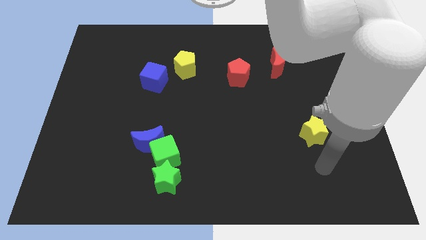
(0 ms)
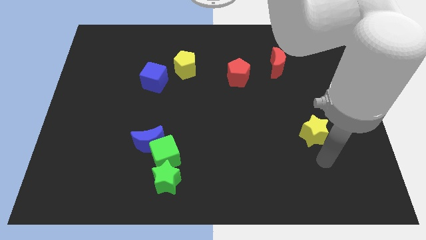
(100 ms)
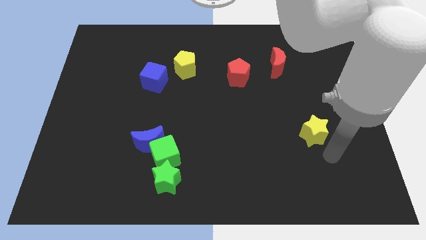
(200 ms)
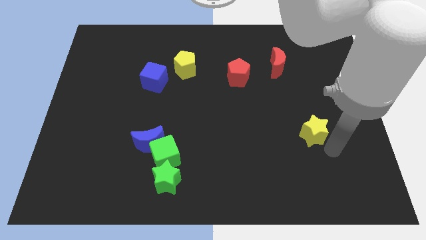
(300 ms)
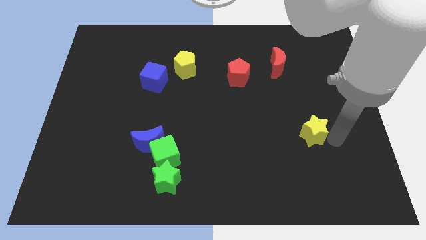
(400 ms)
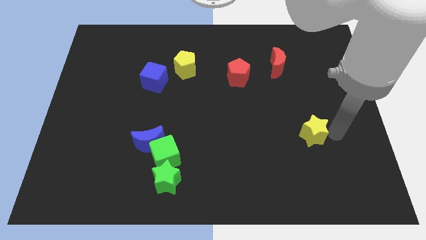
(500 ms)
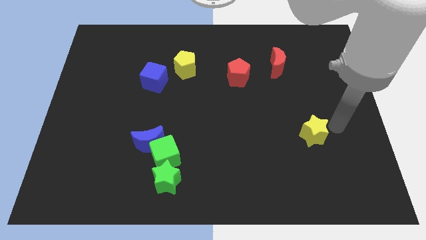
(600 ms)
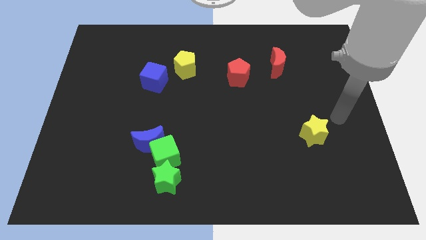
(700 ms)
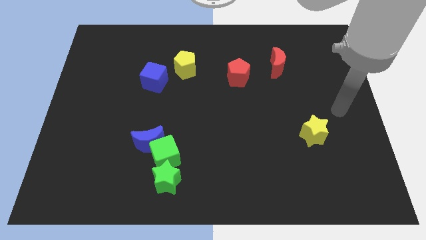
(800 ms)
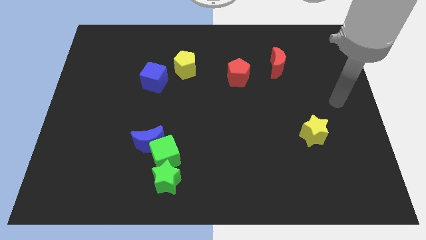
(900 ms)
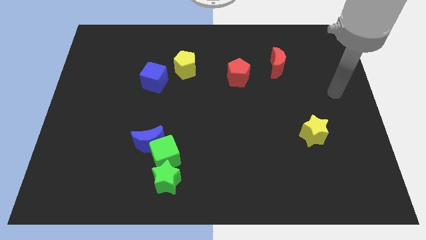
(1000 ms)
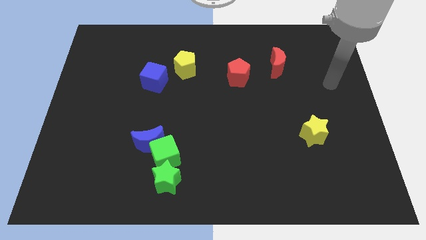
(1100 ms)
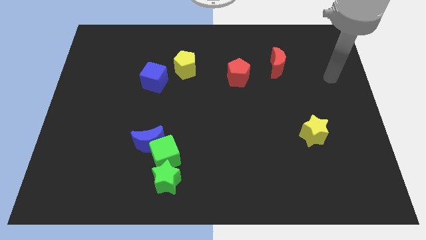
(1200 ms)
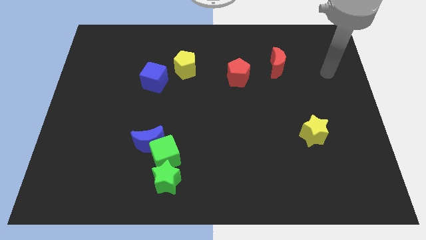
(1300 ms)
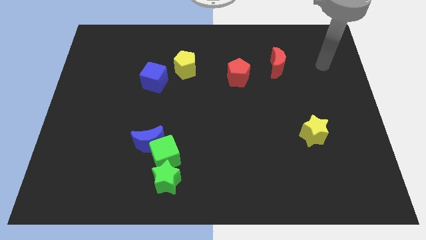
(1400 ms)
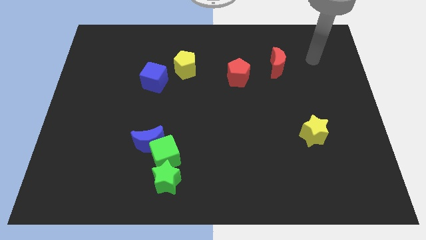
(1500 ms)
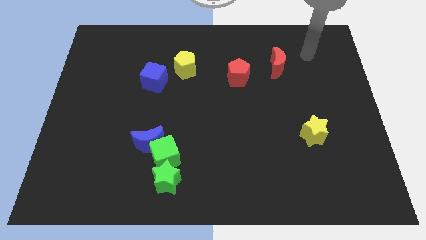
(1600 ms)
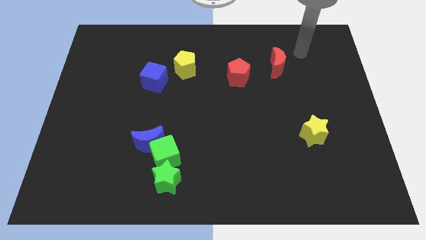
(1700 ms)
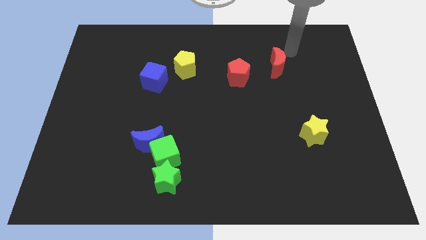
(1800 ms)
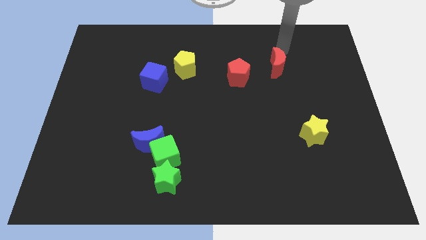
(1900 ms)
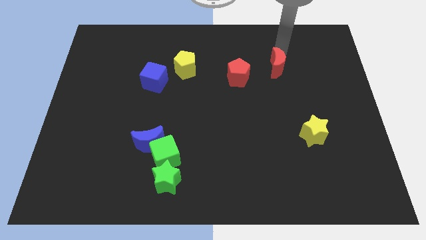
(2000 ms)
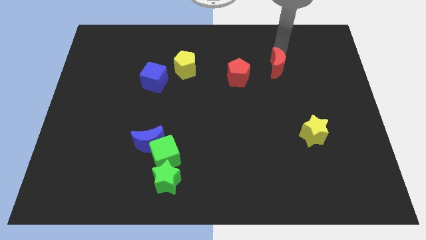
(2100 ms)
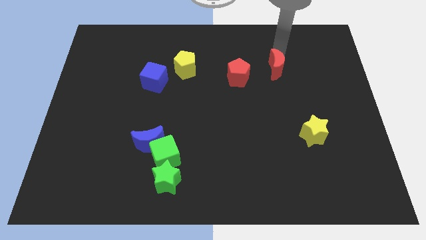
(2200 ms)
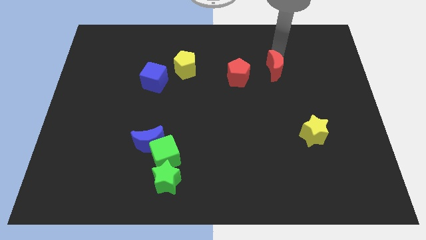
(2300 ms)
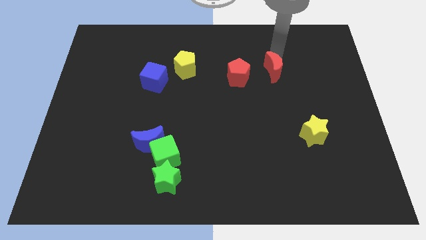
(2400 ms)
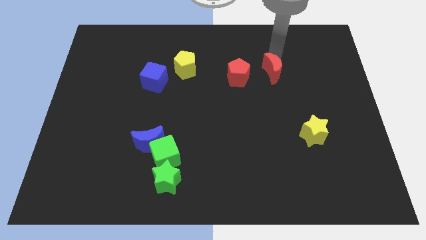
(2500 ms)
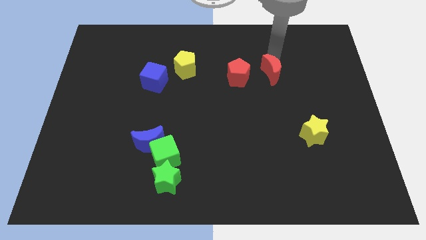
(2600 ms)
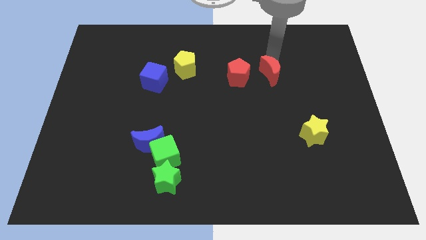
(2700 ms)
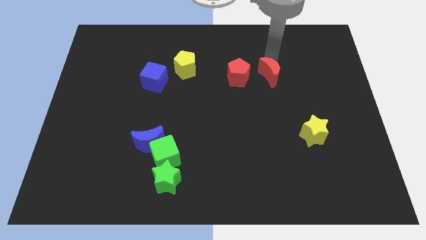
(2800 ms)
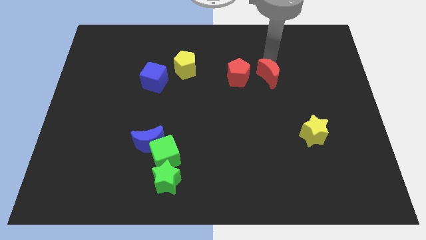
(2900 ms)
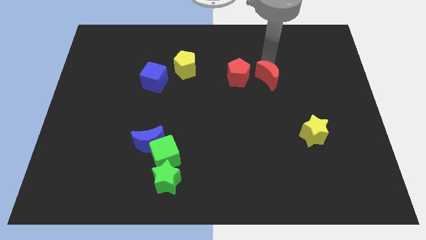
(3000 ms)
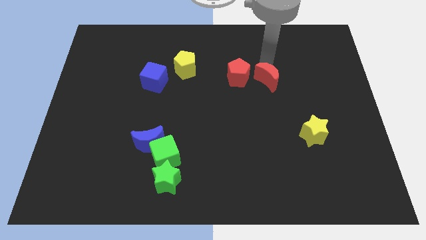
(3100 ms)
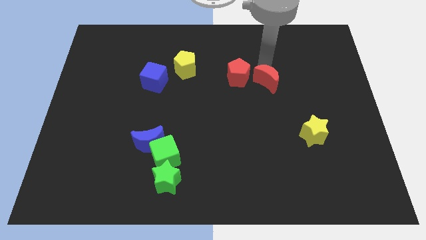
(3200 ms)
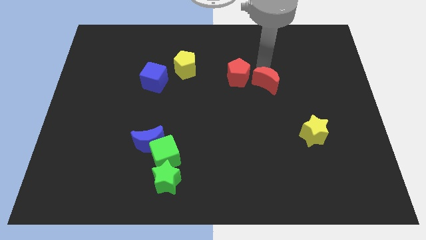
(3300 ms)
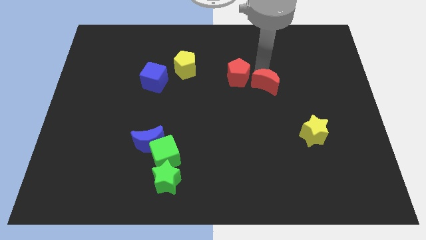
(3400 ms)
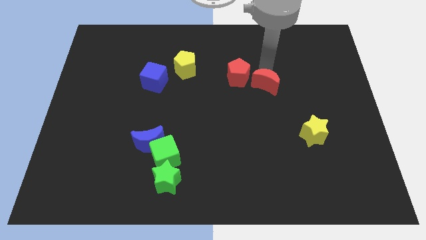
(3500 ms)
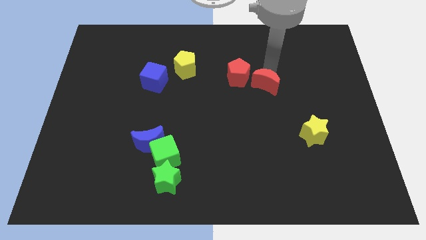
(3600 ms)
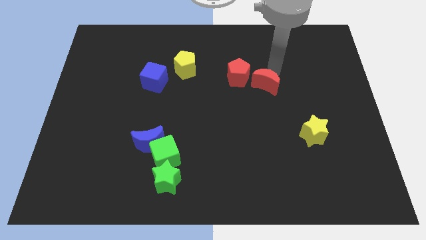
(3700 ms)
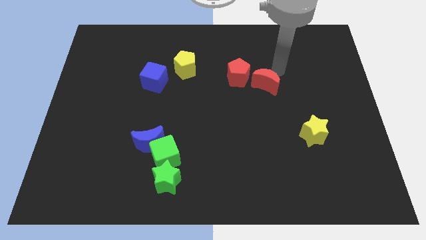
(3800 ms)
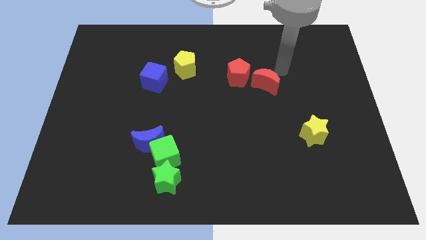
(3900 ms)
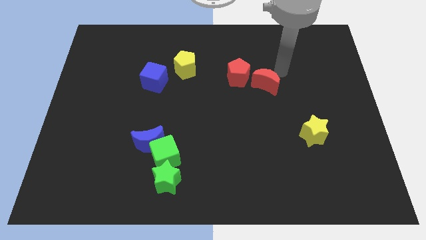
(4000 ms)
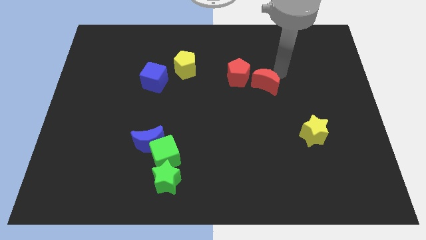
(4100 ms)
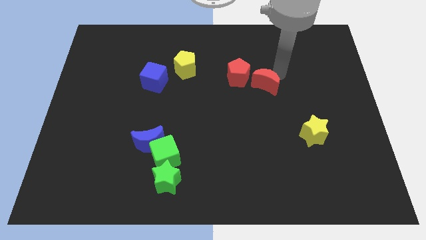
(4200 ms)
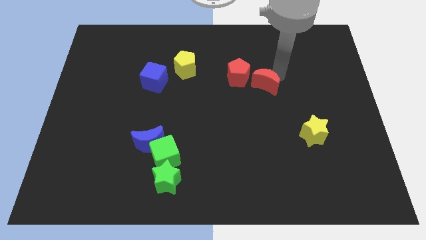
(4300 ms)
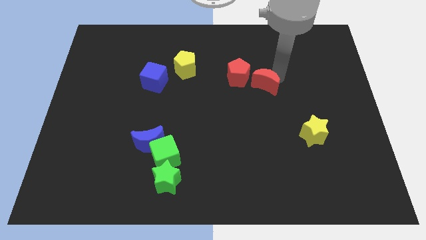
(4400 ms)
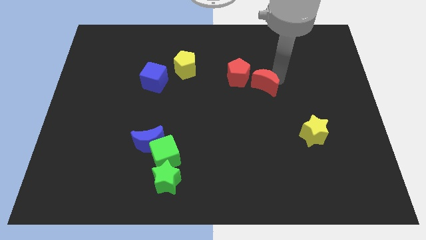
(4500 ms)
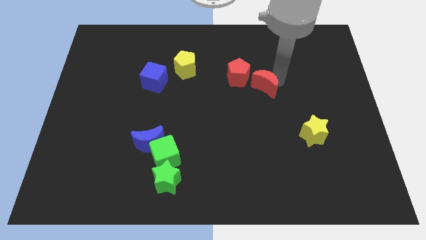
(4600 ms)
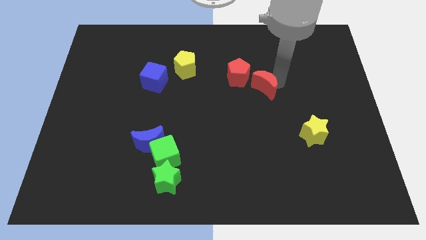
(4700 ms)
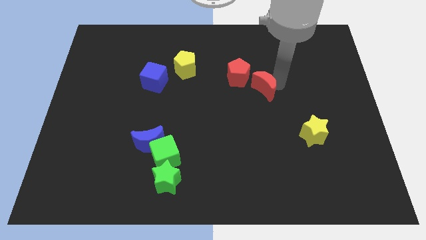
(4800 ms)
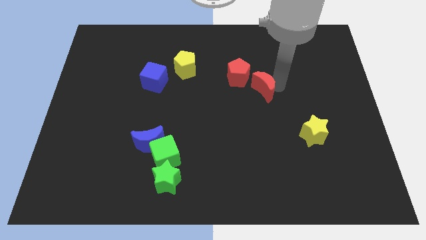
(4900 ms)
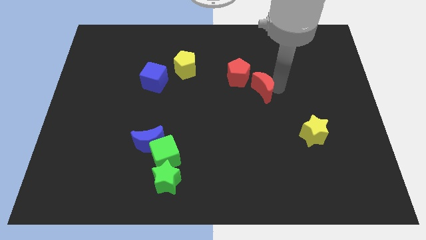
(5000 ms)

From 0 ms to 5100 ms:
move the red moon to the center of the board

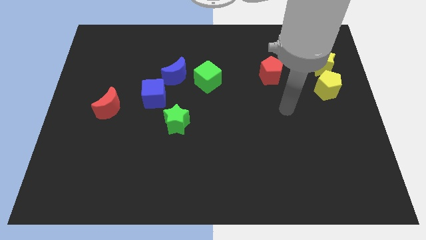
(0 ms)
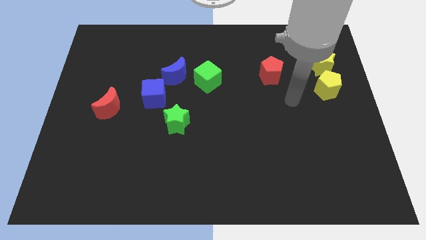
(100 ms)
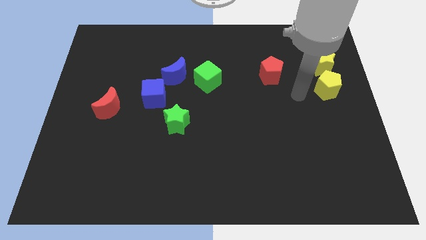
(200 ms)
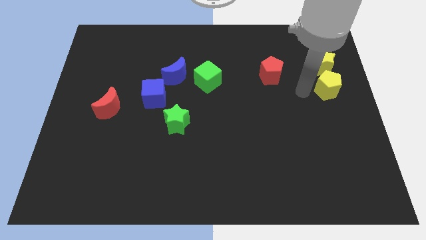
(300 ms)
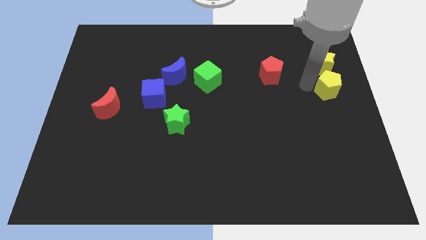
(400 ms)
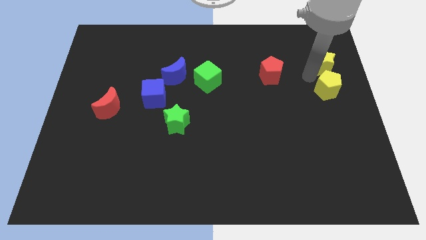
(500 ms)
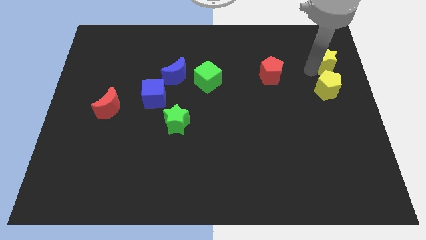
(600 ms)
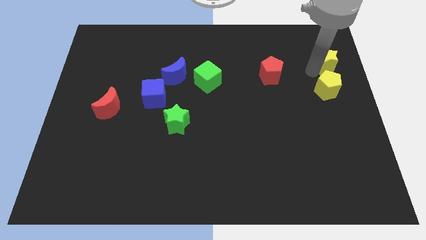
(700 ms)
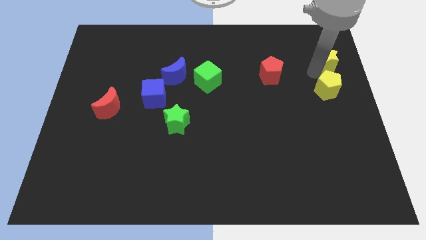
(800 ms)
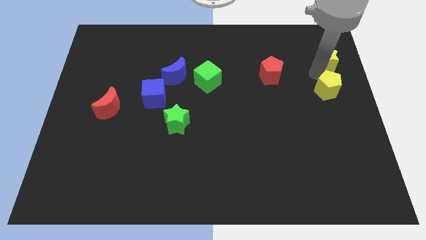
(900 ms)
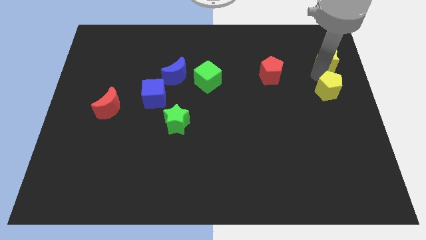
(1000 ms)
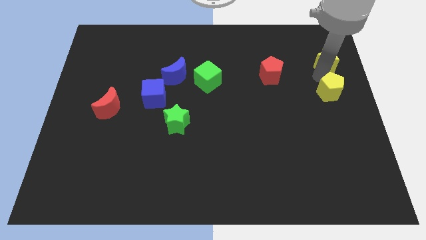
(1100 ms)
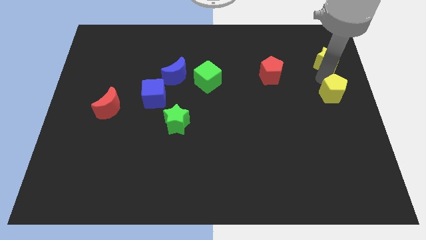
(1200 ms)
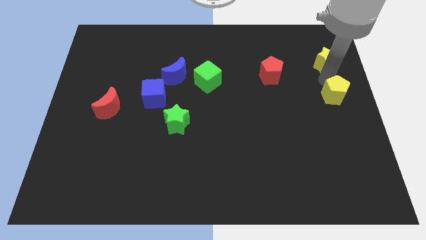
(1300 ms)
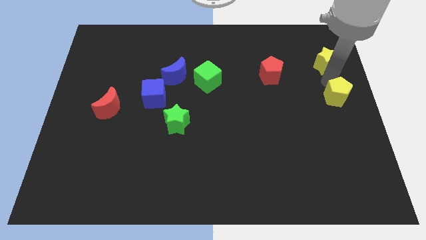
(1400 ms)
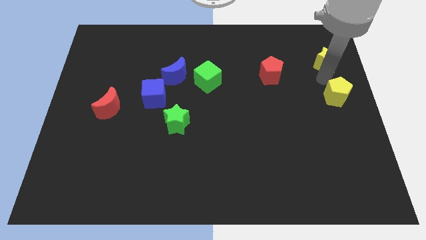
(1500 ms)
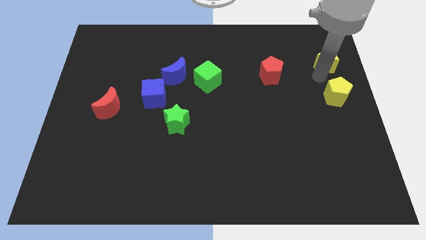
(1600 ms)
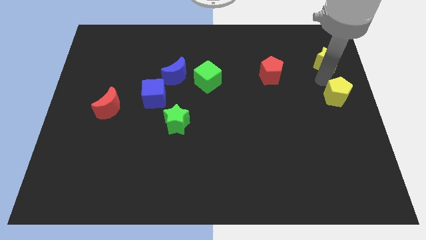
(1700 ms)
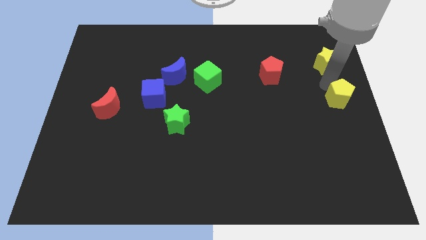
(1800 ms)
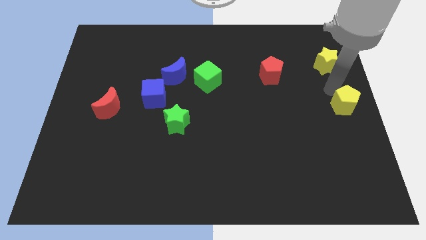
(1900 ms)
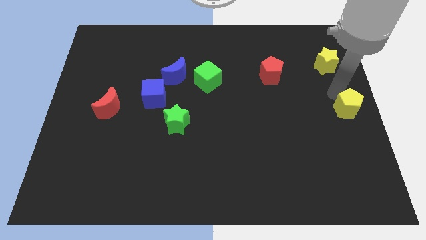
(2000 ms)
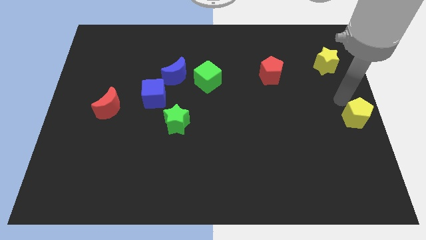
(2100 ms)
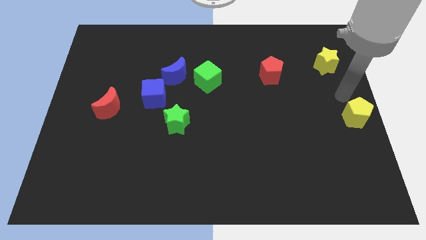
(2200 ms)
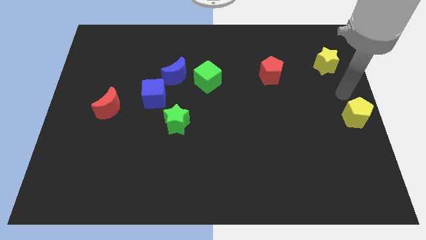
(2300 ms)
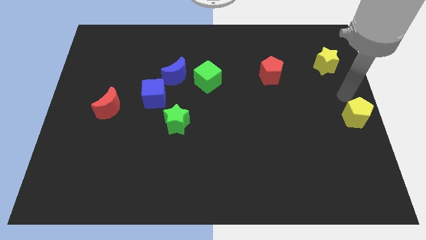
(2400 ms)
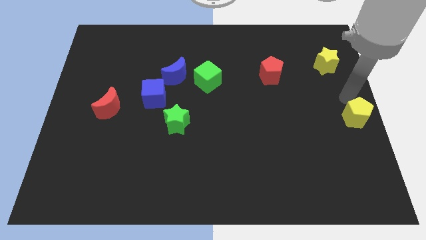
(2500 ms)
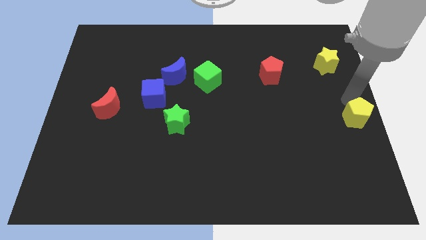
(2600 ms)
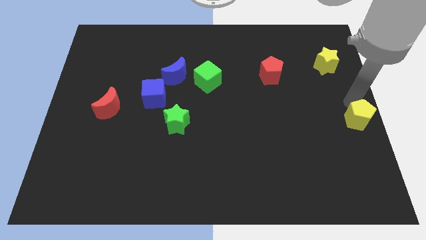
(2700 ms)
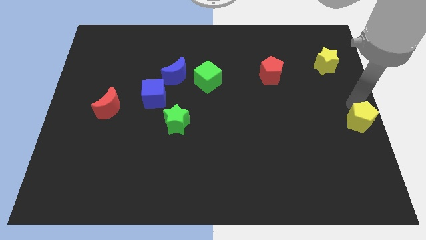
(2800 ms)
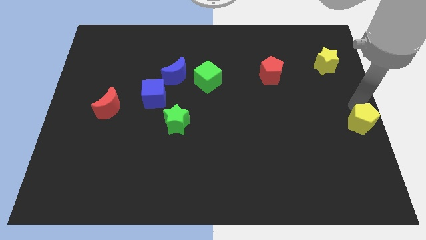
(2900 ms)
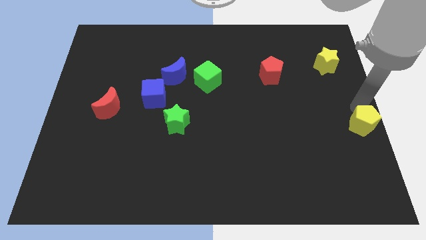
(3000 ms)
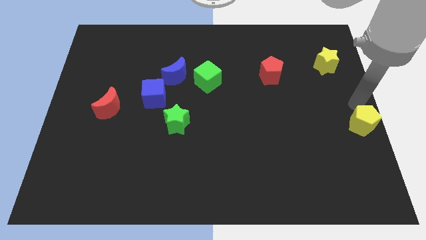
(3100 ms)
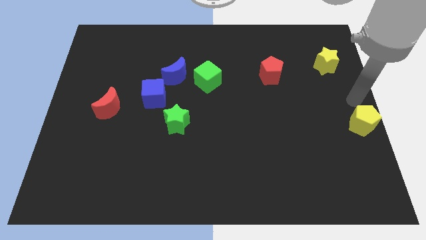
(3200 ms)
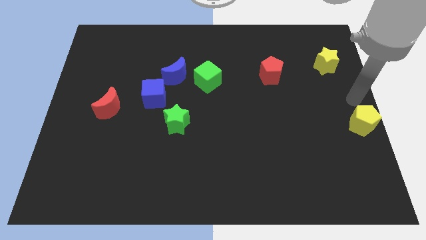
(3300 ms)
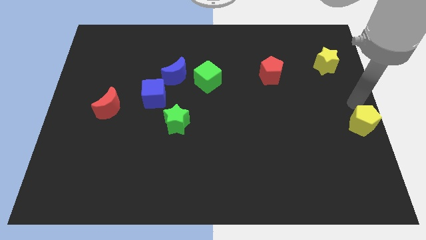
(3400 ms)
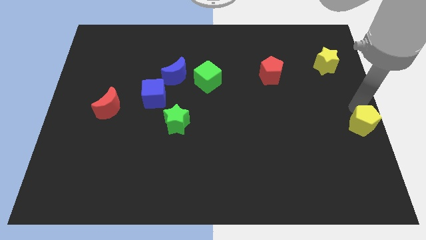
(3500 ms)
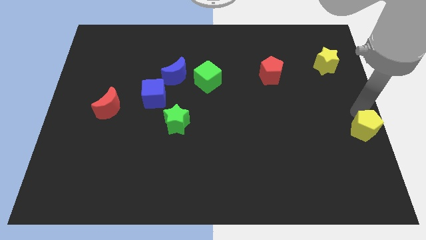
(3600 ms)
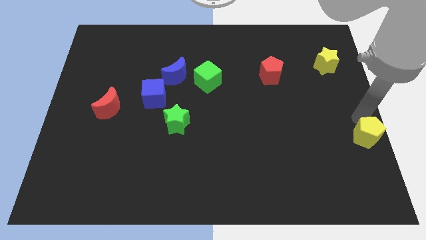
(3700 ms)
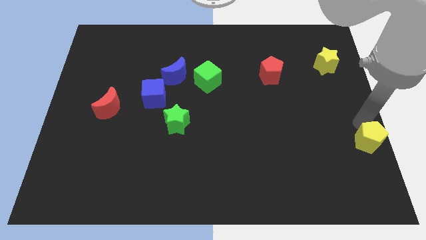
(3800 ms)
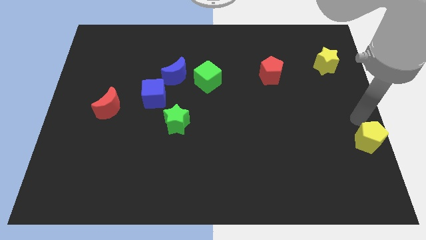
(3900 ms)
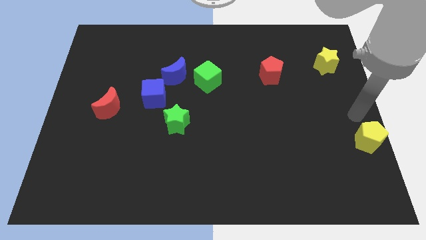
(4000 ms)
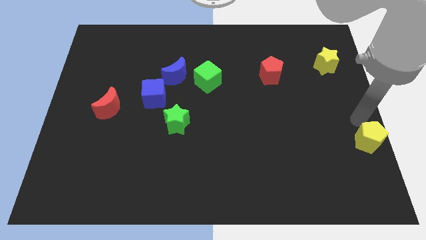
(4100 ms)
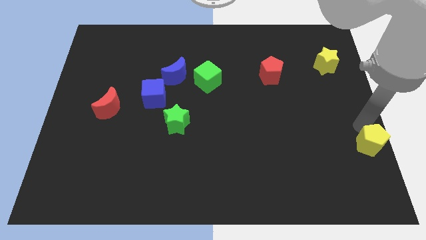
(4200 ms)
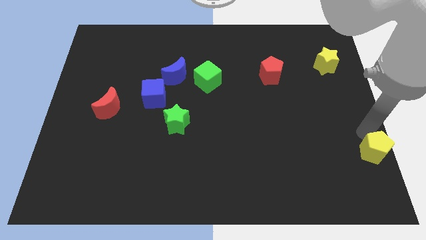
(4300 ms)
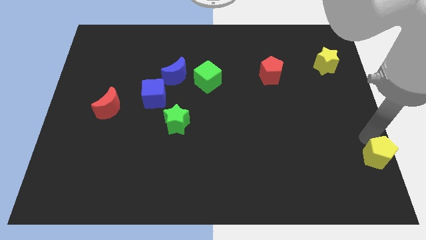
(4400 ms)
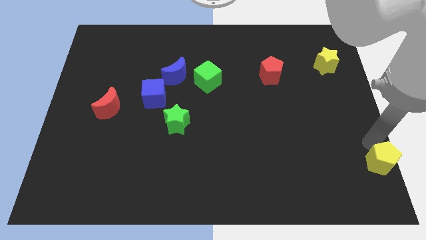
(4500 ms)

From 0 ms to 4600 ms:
move the yellow pentagon to the bottom right of the board
